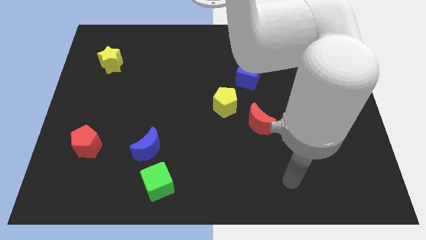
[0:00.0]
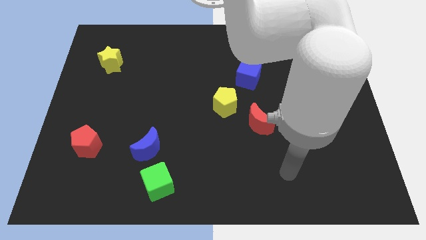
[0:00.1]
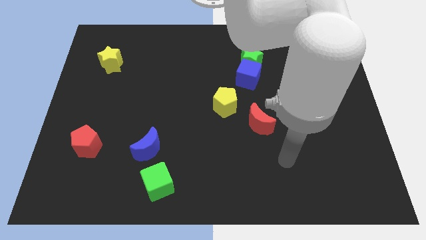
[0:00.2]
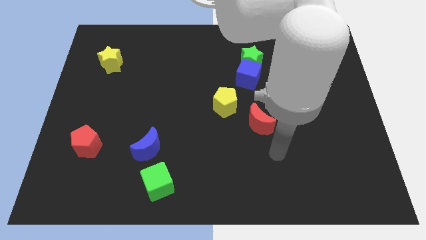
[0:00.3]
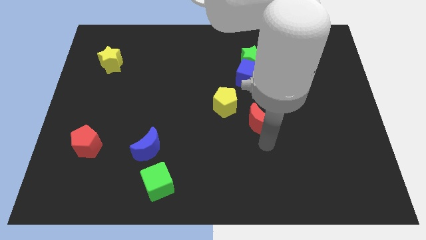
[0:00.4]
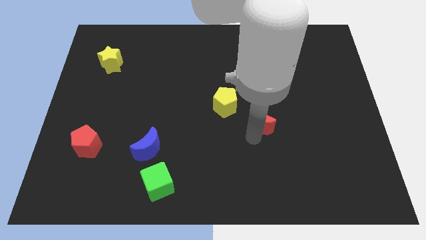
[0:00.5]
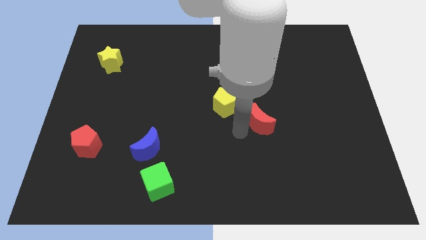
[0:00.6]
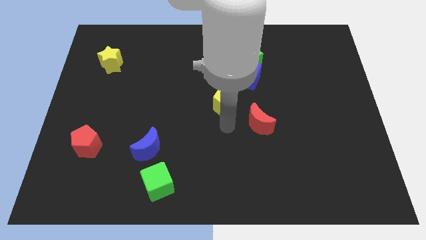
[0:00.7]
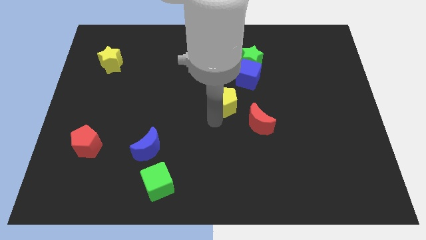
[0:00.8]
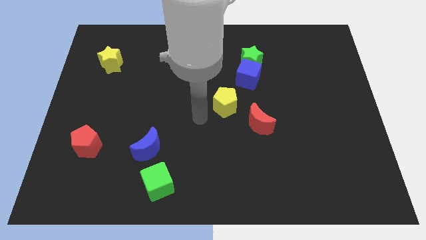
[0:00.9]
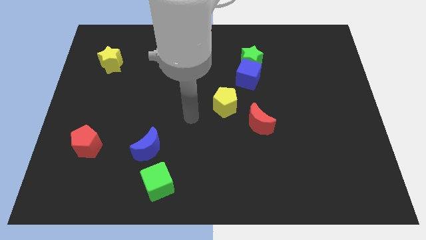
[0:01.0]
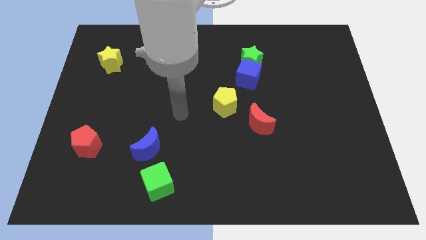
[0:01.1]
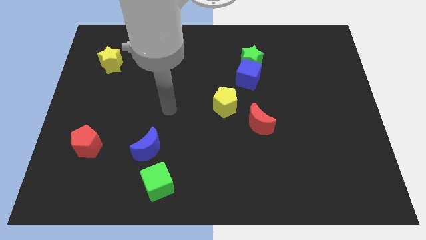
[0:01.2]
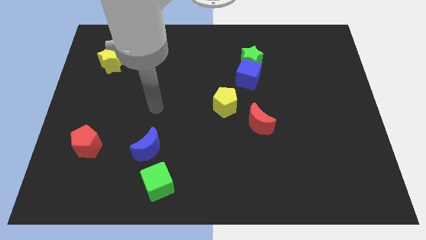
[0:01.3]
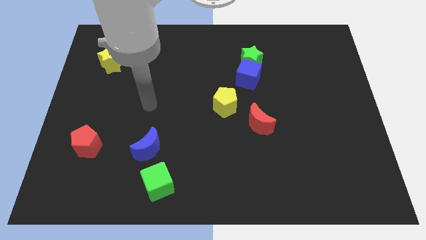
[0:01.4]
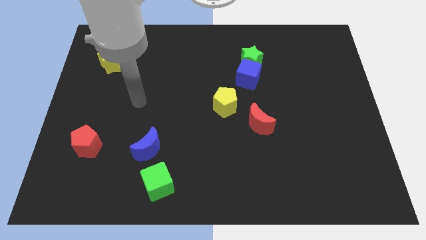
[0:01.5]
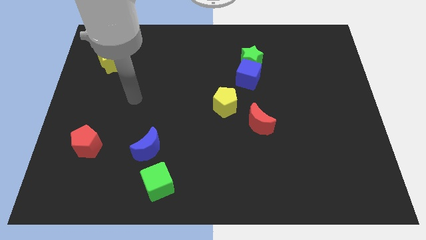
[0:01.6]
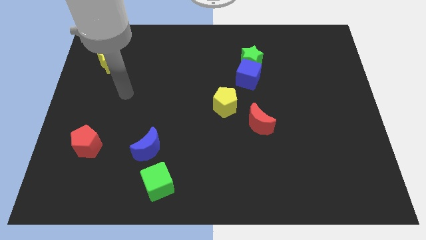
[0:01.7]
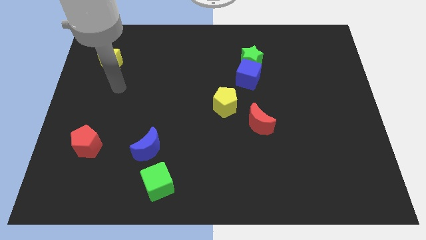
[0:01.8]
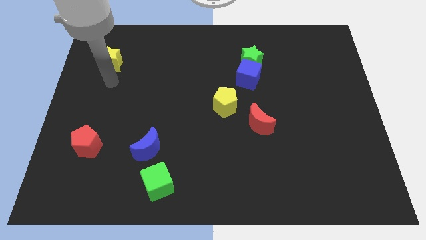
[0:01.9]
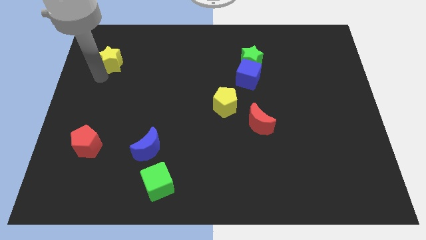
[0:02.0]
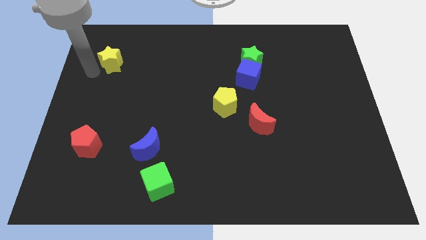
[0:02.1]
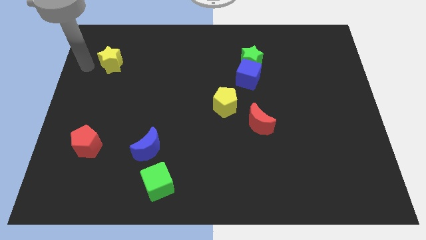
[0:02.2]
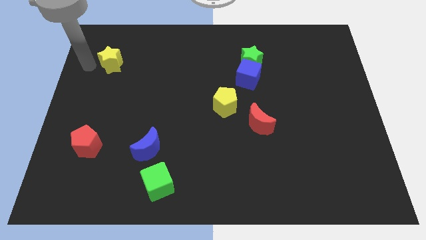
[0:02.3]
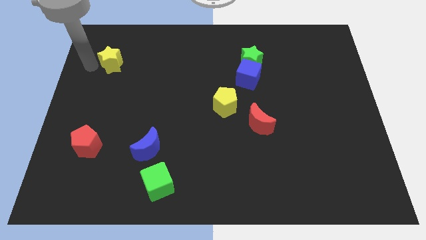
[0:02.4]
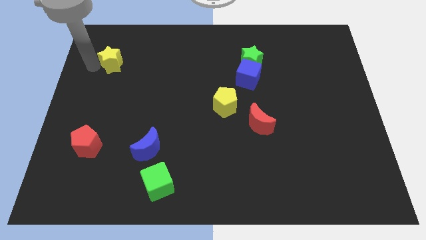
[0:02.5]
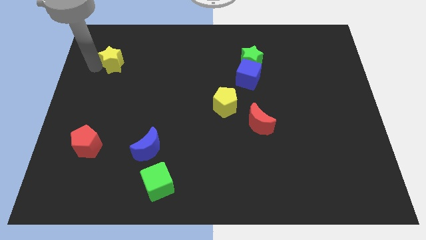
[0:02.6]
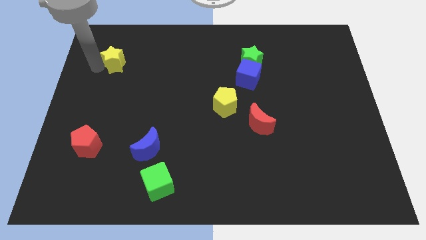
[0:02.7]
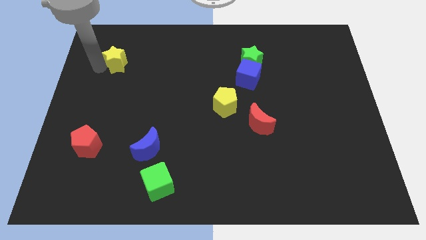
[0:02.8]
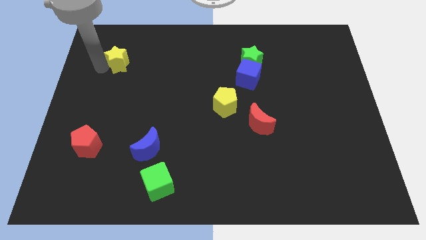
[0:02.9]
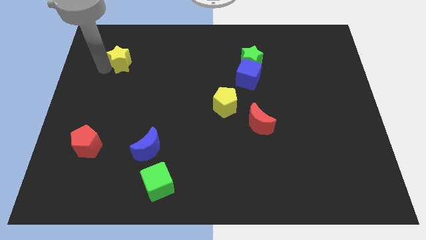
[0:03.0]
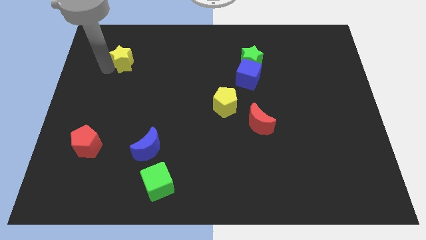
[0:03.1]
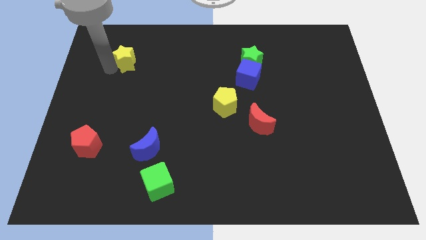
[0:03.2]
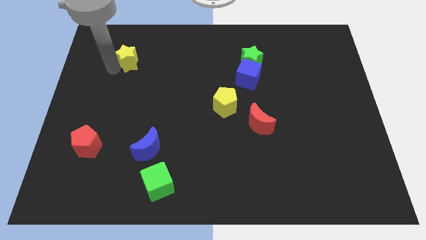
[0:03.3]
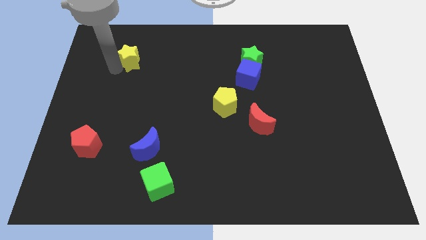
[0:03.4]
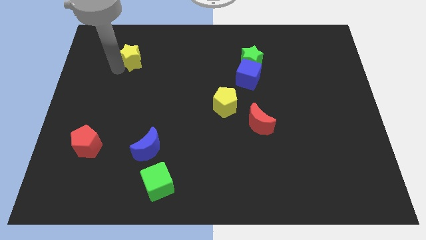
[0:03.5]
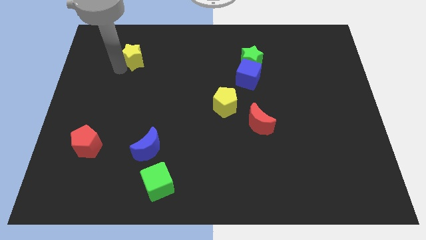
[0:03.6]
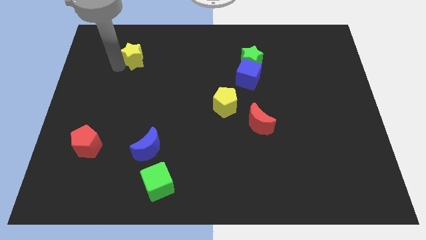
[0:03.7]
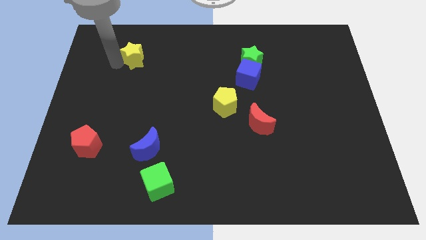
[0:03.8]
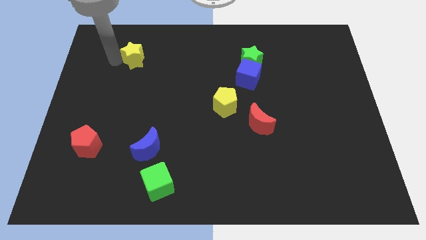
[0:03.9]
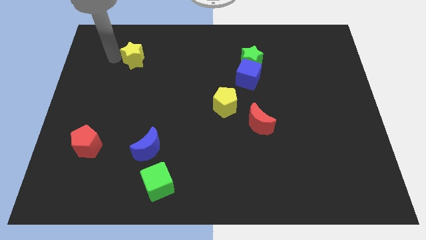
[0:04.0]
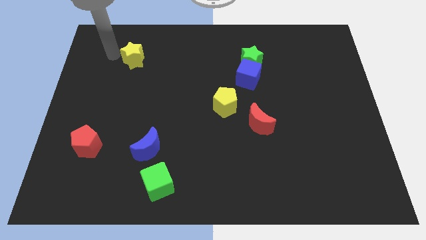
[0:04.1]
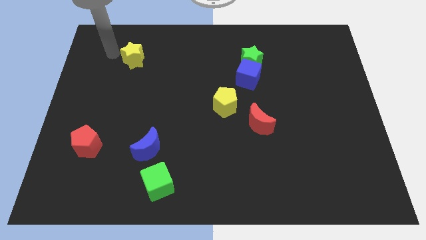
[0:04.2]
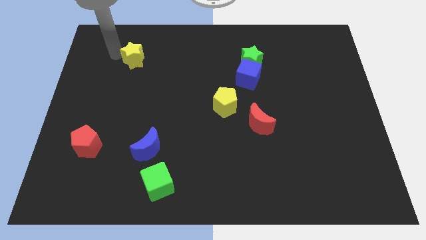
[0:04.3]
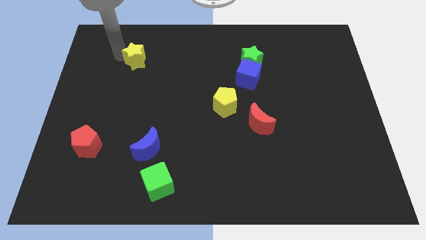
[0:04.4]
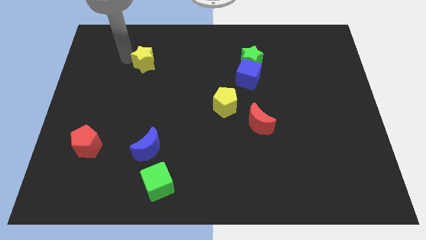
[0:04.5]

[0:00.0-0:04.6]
move the yellow star somewhat to the right

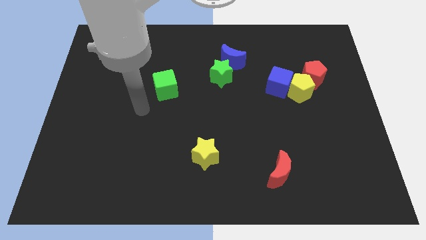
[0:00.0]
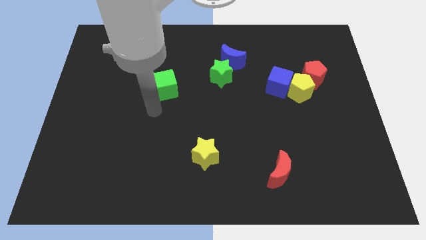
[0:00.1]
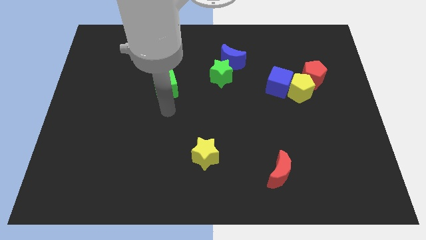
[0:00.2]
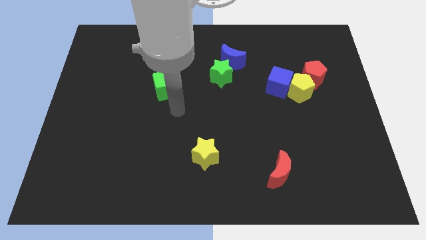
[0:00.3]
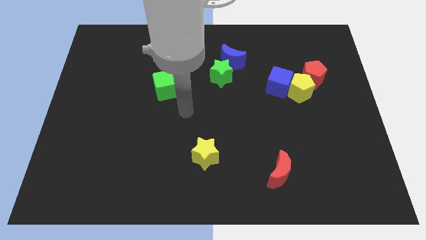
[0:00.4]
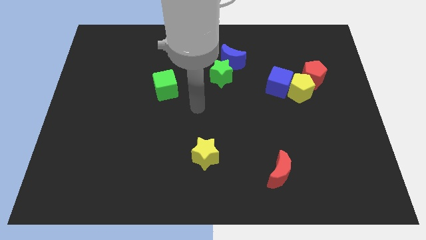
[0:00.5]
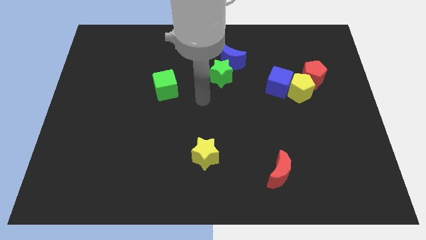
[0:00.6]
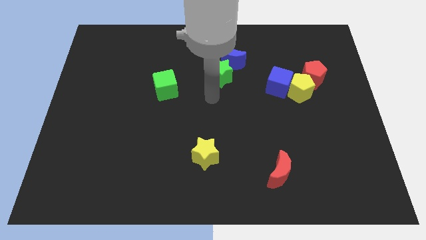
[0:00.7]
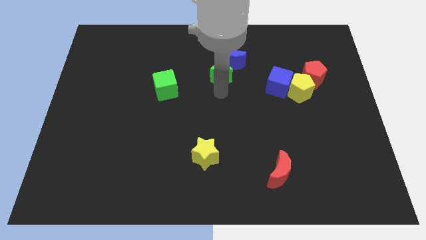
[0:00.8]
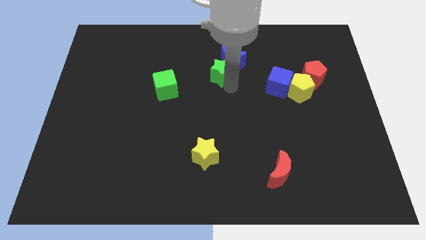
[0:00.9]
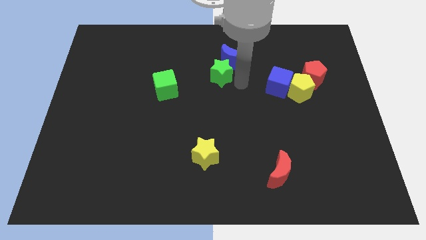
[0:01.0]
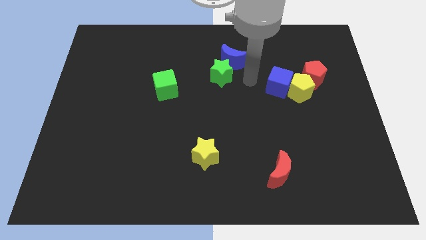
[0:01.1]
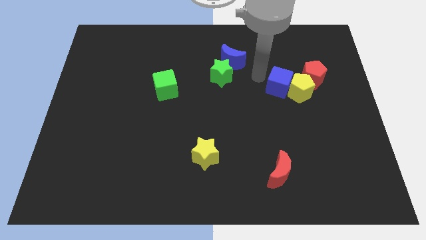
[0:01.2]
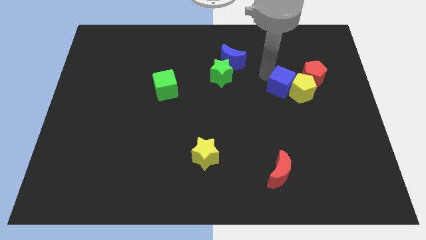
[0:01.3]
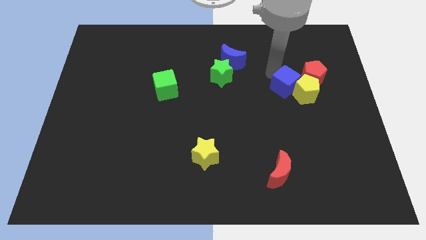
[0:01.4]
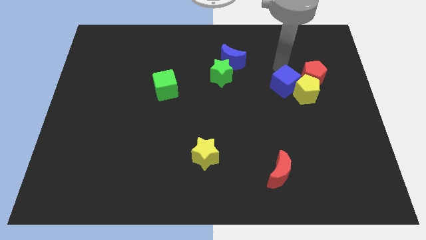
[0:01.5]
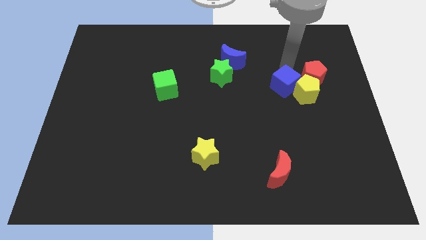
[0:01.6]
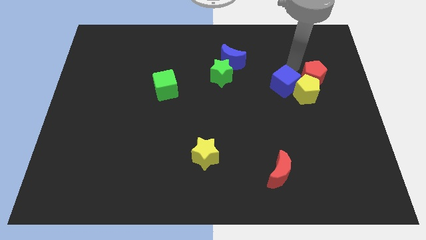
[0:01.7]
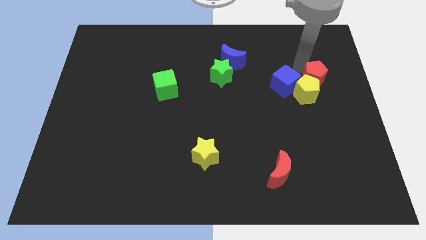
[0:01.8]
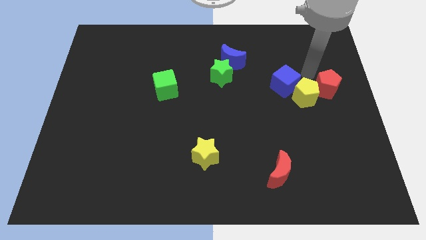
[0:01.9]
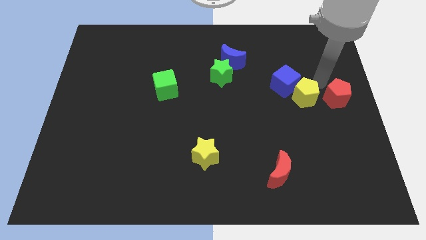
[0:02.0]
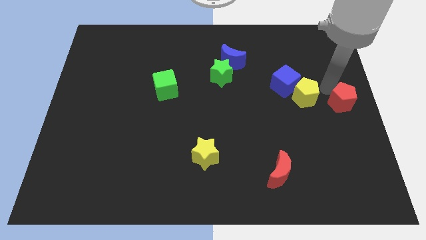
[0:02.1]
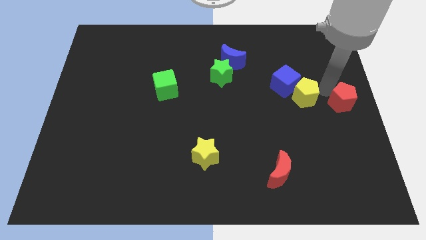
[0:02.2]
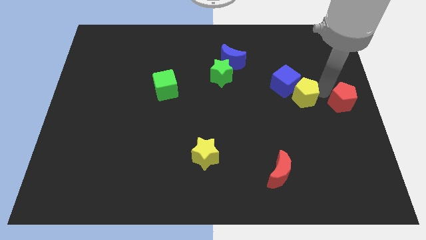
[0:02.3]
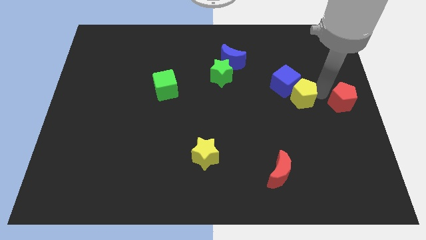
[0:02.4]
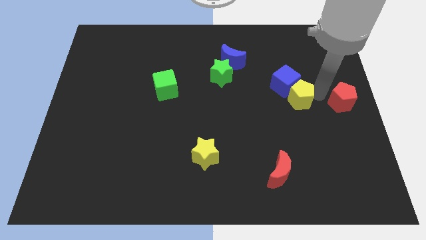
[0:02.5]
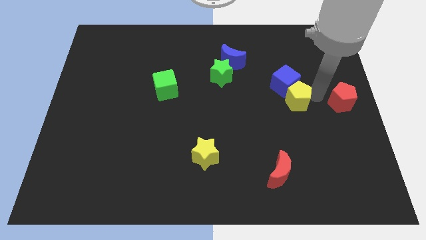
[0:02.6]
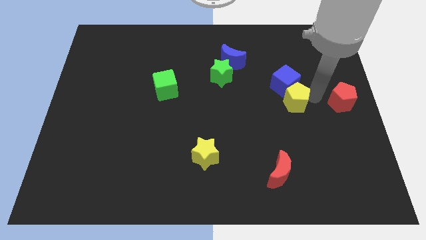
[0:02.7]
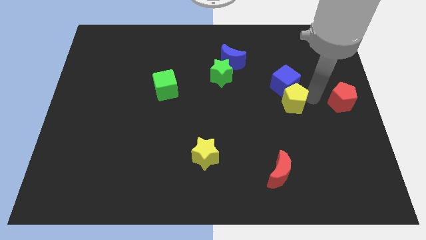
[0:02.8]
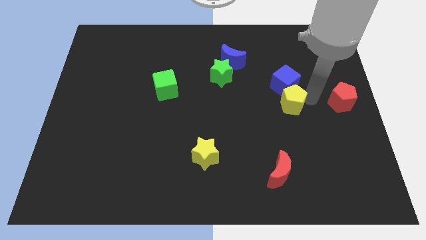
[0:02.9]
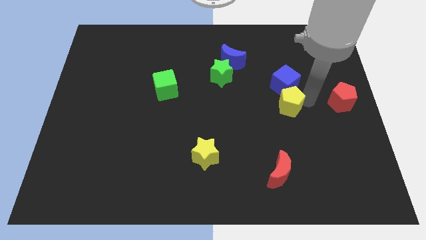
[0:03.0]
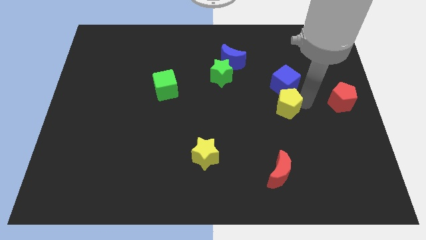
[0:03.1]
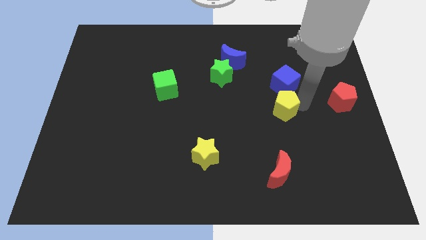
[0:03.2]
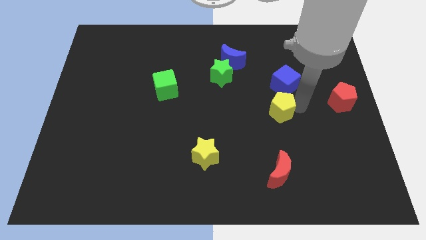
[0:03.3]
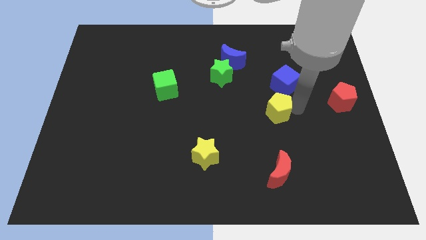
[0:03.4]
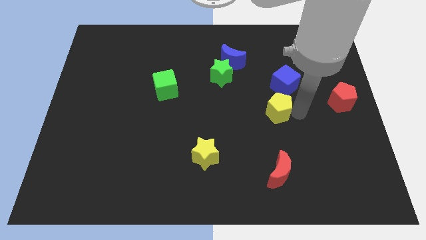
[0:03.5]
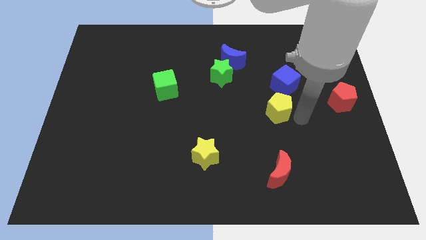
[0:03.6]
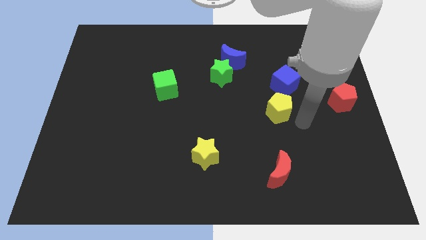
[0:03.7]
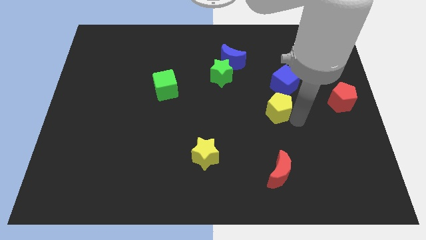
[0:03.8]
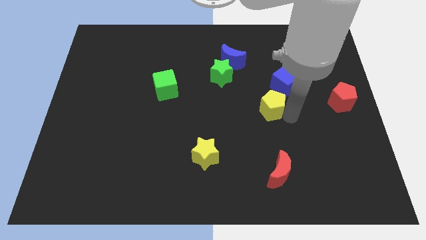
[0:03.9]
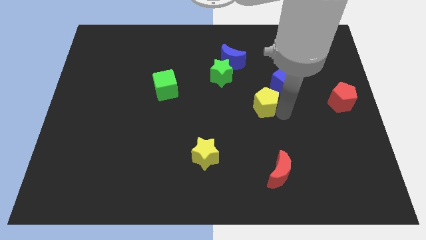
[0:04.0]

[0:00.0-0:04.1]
move the yellow pentagon a bit left
